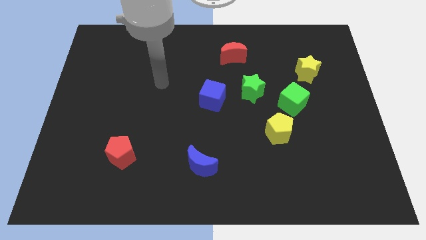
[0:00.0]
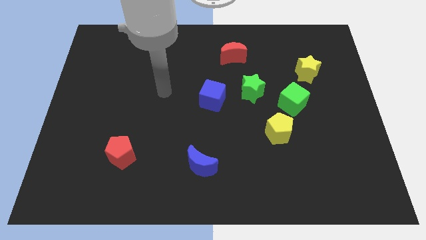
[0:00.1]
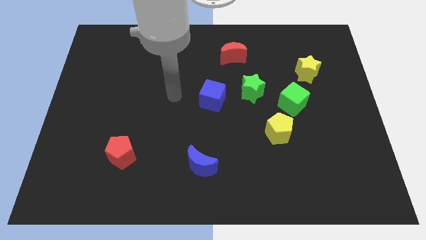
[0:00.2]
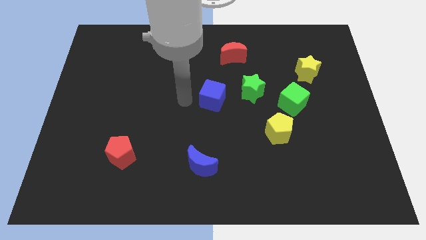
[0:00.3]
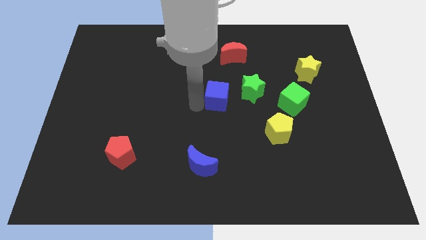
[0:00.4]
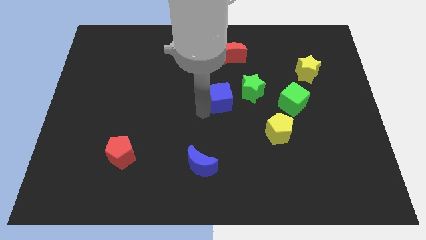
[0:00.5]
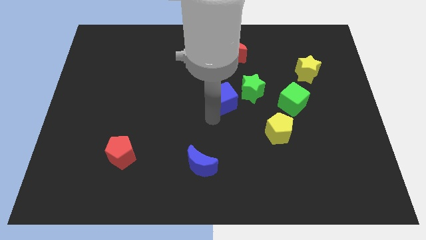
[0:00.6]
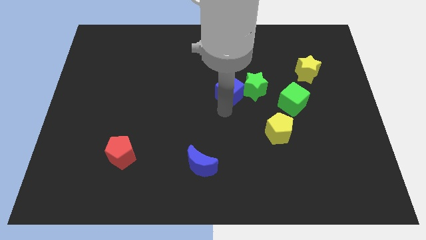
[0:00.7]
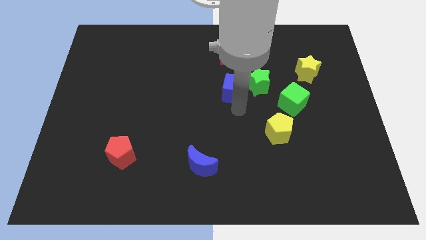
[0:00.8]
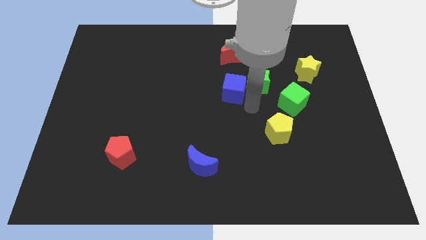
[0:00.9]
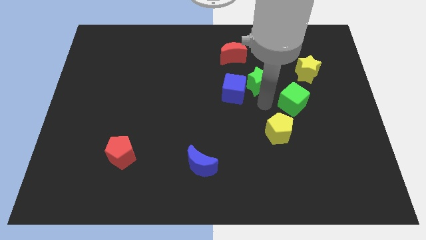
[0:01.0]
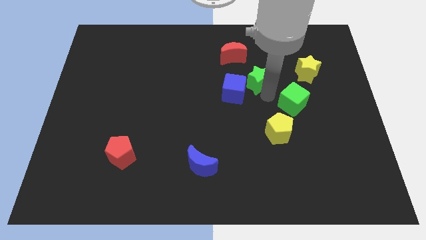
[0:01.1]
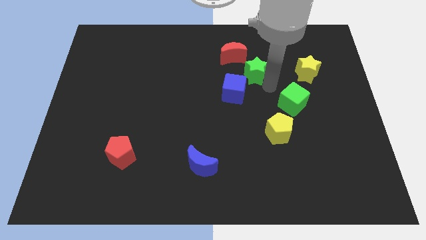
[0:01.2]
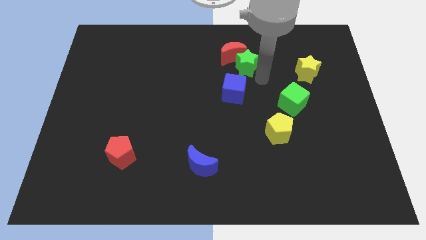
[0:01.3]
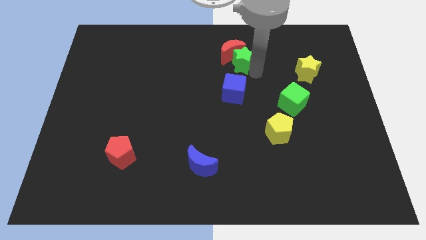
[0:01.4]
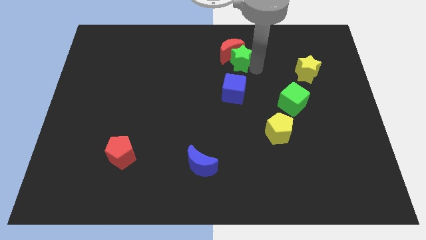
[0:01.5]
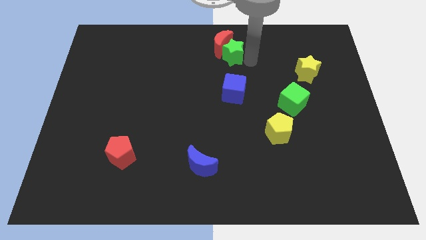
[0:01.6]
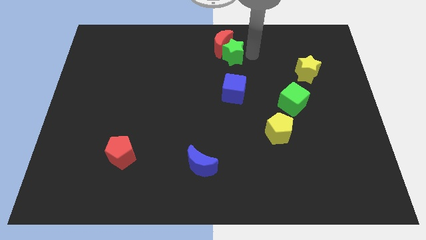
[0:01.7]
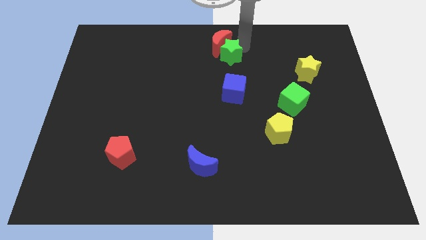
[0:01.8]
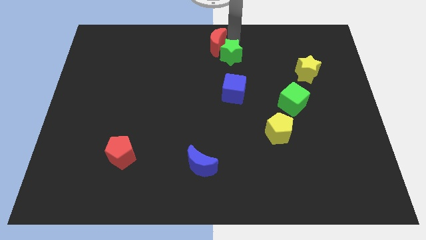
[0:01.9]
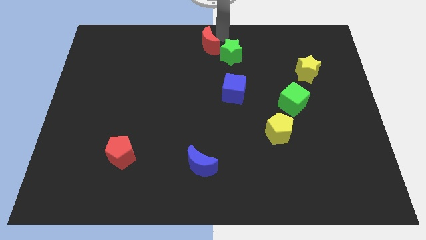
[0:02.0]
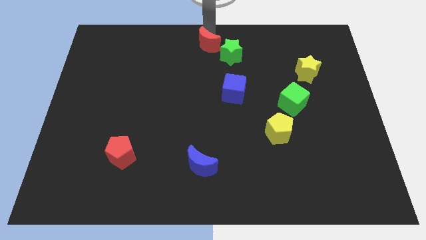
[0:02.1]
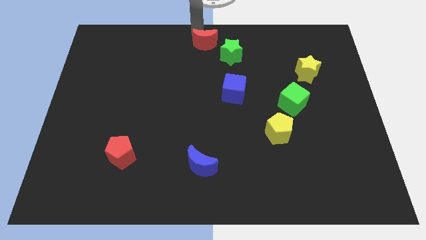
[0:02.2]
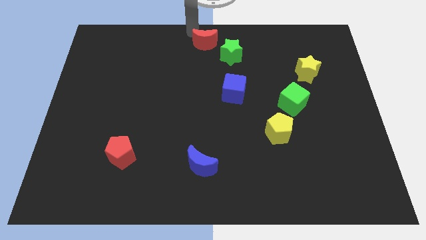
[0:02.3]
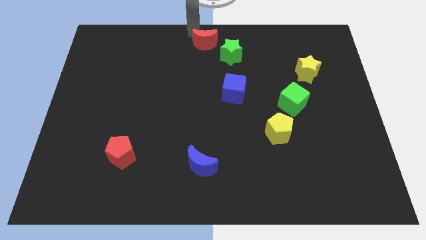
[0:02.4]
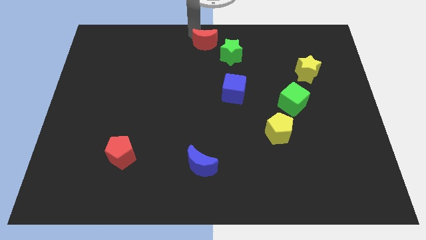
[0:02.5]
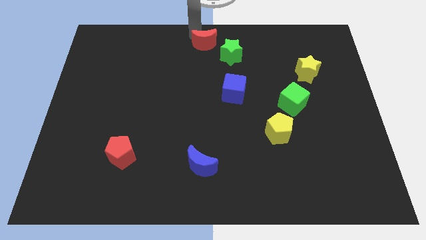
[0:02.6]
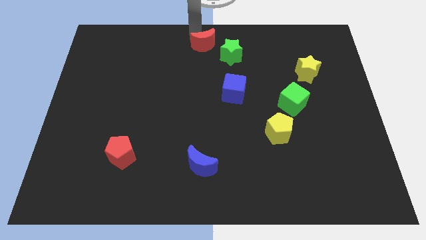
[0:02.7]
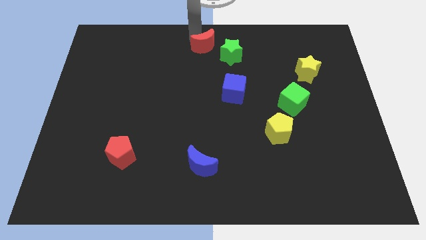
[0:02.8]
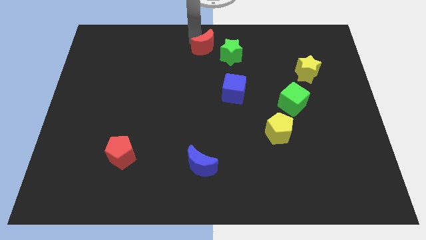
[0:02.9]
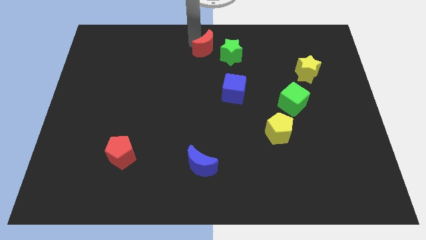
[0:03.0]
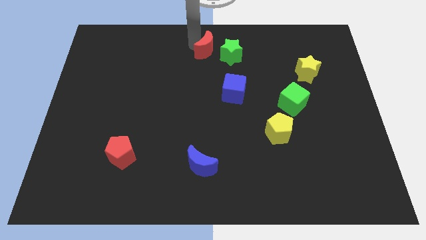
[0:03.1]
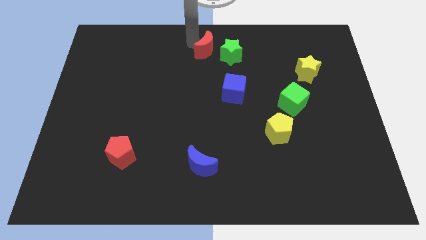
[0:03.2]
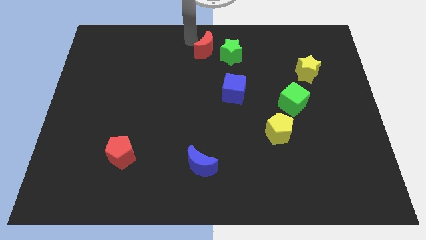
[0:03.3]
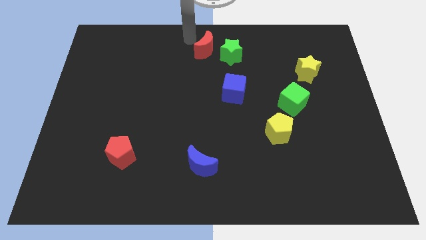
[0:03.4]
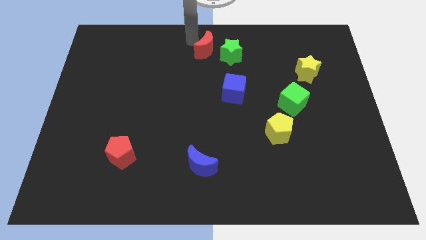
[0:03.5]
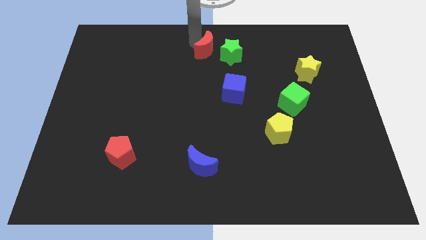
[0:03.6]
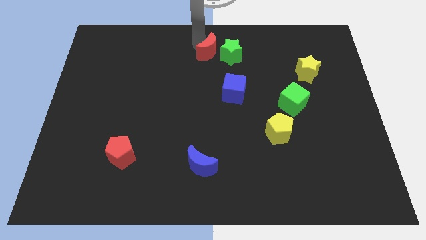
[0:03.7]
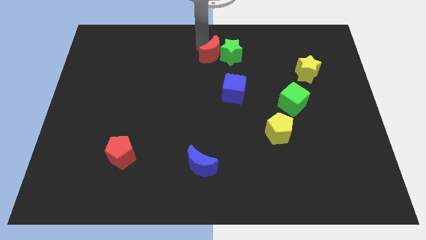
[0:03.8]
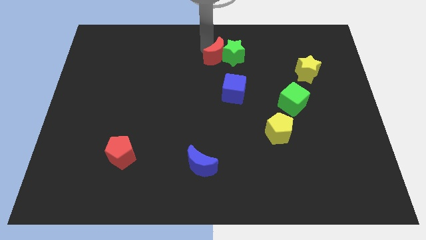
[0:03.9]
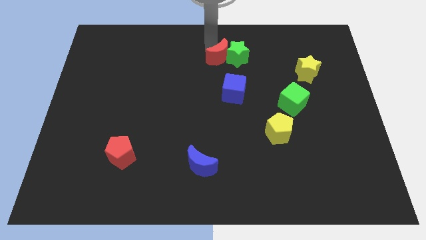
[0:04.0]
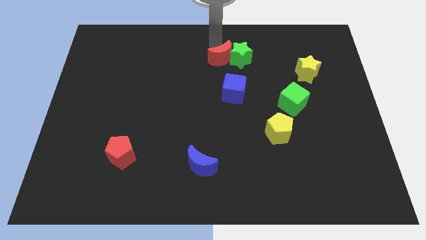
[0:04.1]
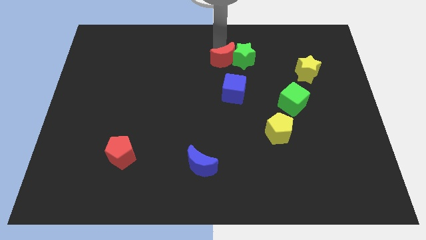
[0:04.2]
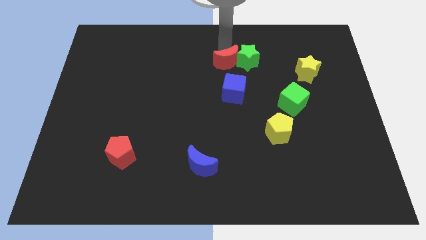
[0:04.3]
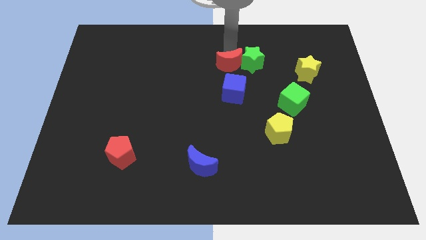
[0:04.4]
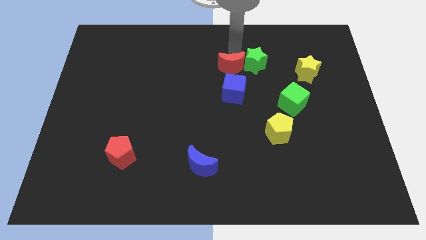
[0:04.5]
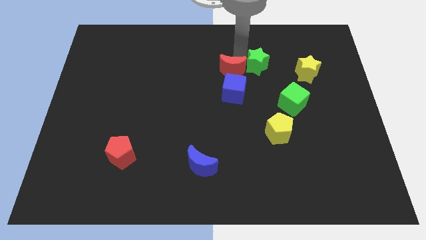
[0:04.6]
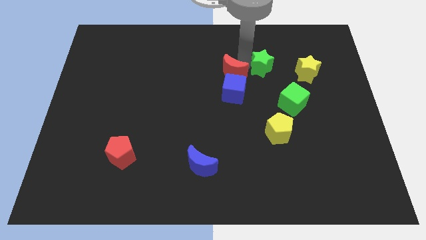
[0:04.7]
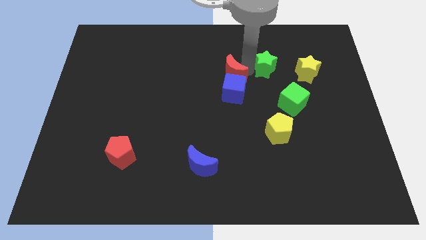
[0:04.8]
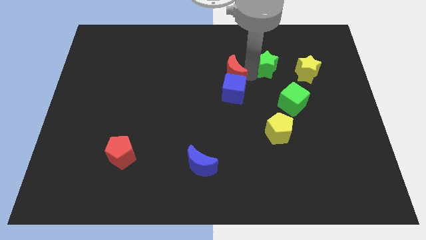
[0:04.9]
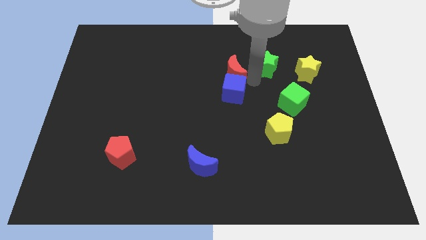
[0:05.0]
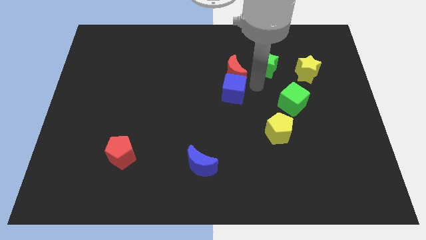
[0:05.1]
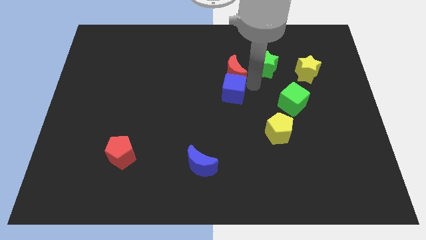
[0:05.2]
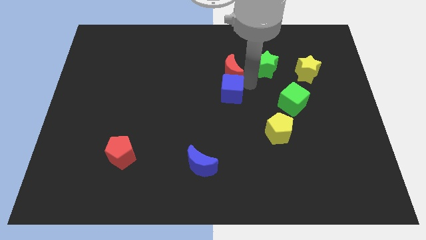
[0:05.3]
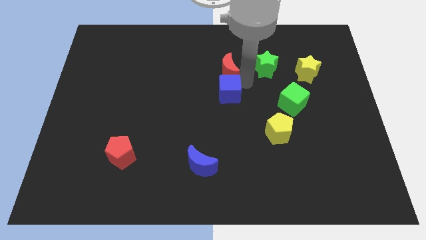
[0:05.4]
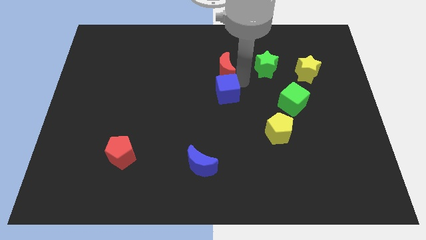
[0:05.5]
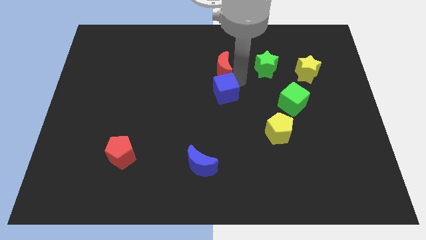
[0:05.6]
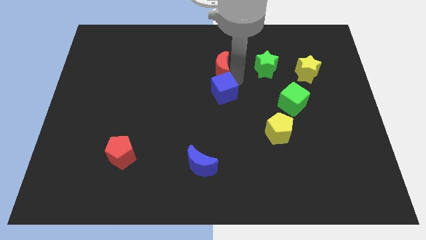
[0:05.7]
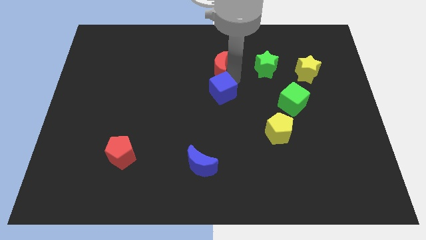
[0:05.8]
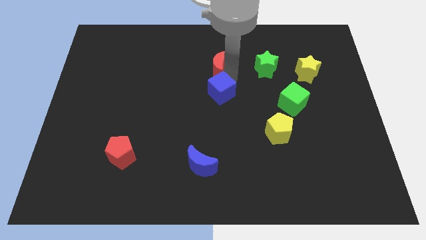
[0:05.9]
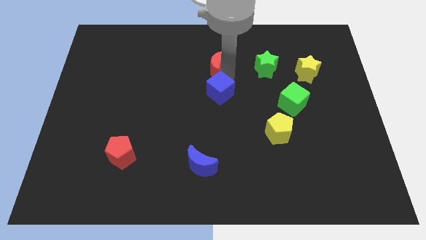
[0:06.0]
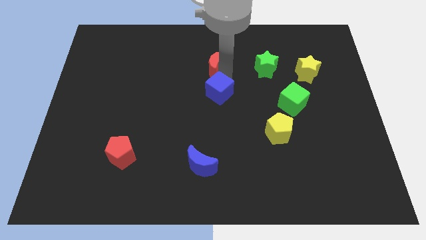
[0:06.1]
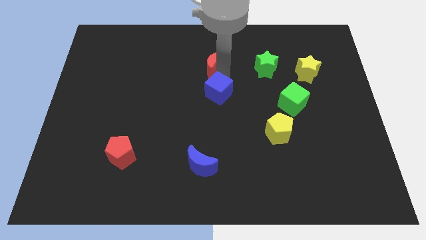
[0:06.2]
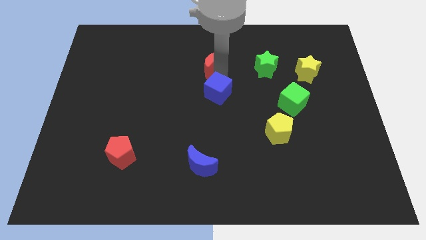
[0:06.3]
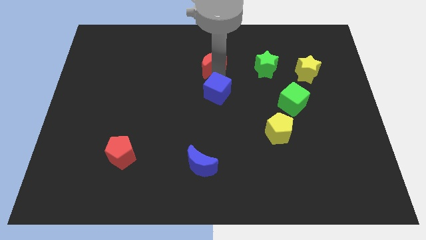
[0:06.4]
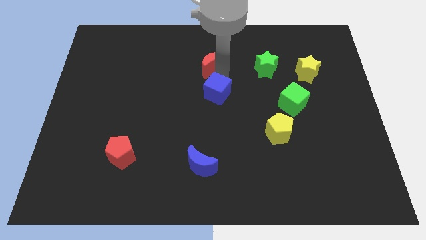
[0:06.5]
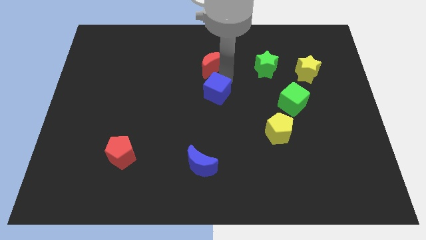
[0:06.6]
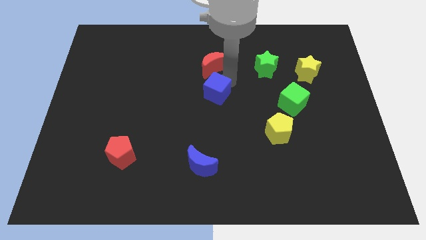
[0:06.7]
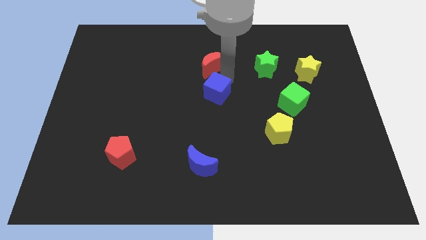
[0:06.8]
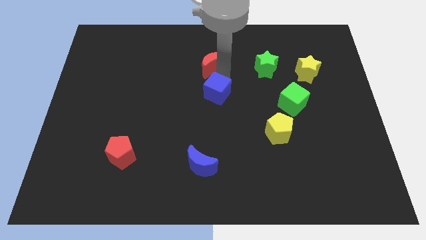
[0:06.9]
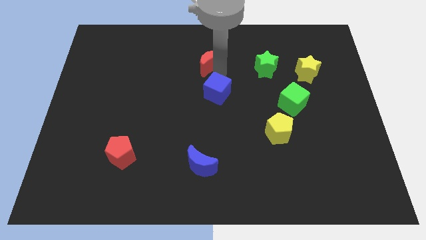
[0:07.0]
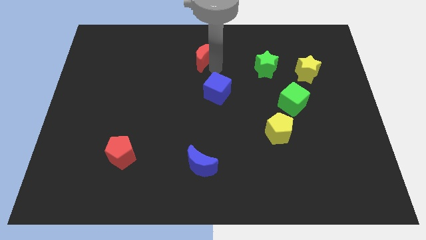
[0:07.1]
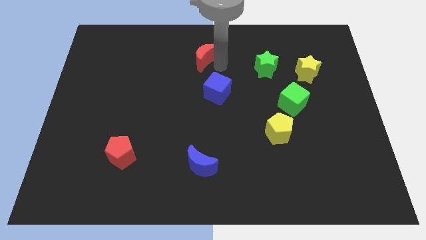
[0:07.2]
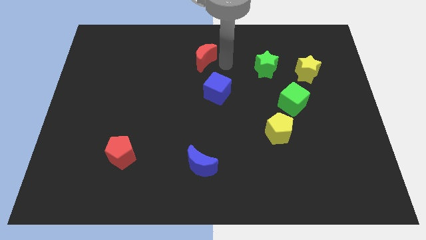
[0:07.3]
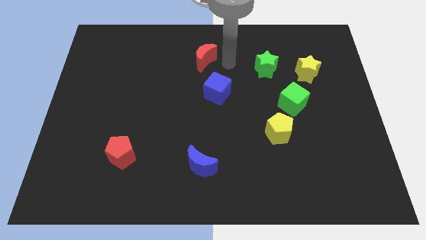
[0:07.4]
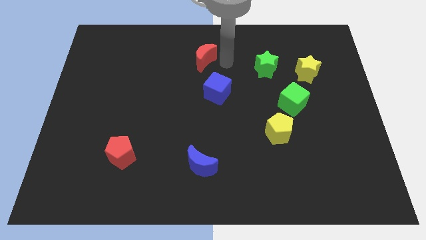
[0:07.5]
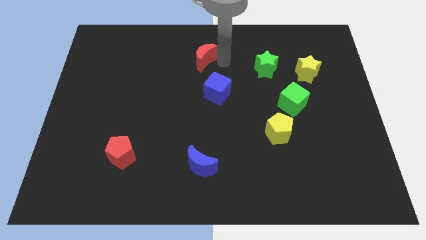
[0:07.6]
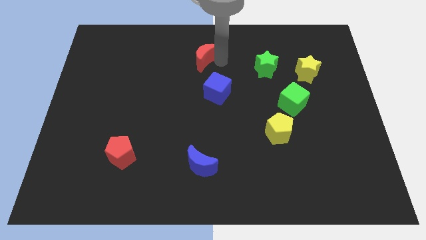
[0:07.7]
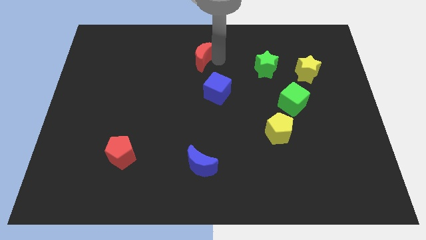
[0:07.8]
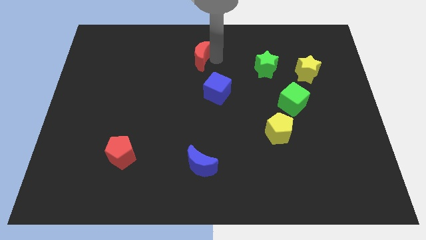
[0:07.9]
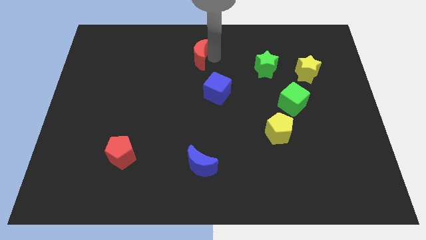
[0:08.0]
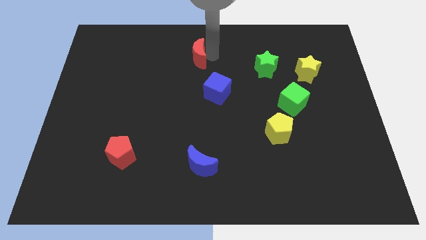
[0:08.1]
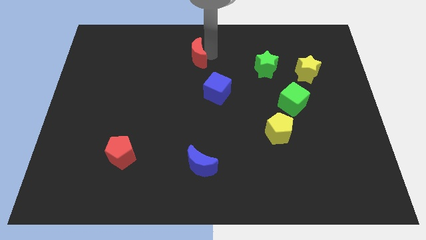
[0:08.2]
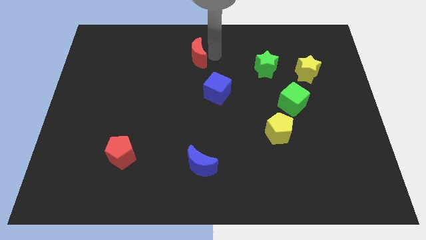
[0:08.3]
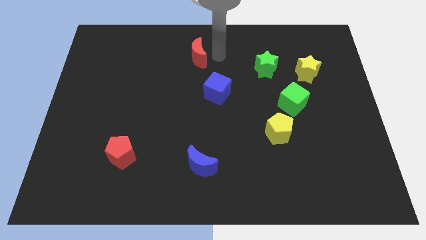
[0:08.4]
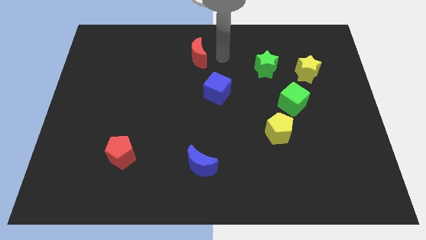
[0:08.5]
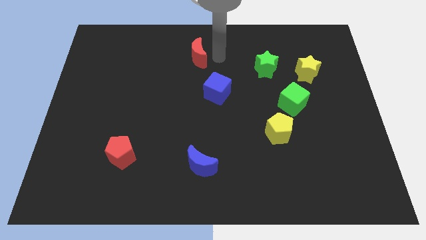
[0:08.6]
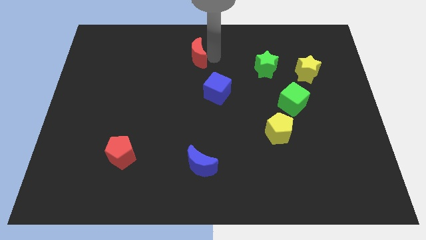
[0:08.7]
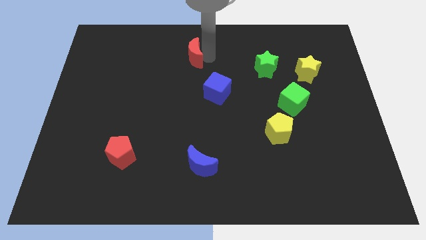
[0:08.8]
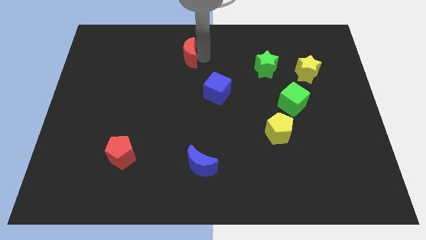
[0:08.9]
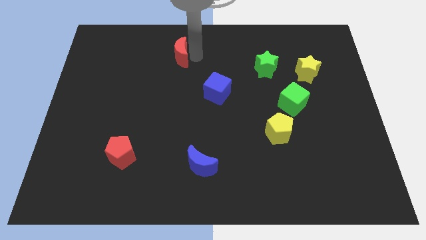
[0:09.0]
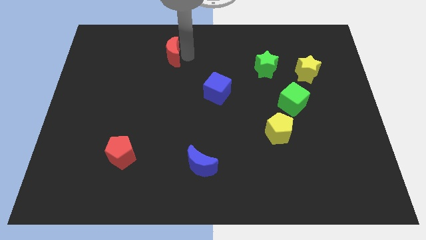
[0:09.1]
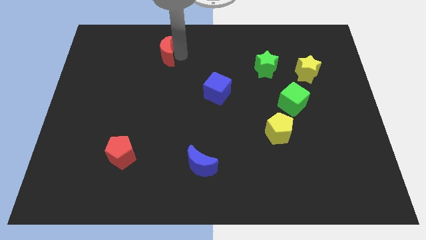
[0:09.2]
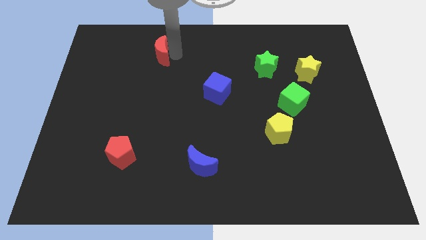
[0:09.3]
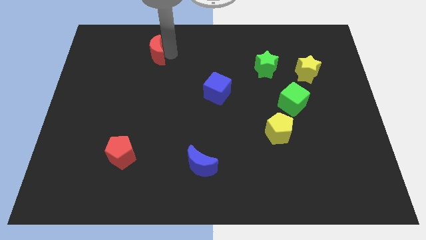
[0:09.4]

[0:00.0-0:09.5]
push the red moon to the left
